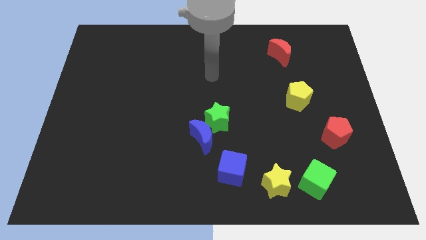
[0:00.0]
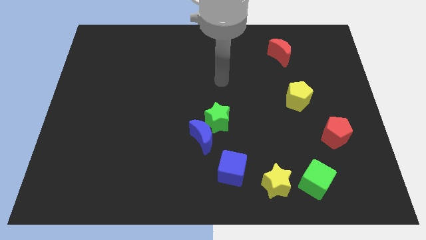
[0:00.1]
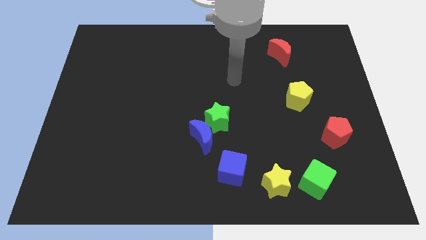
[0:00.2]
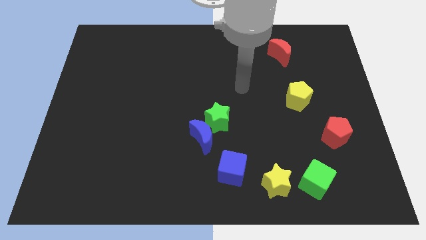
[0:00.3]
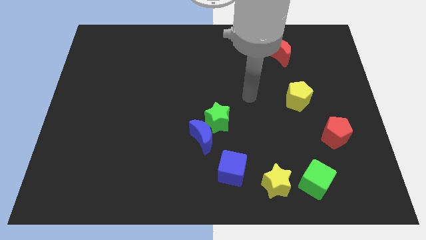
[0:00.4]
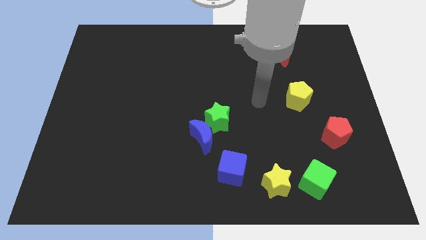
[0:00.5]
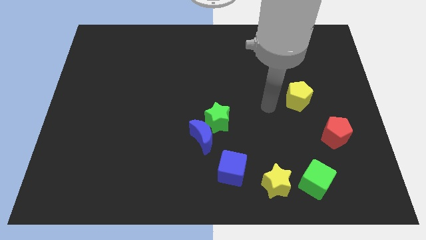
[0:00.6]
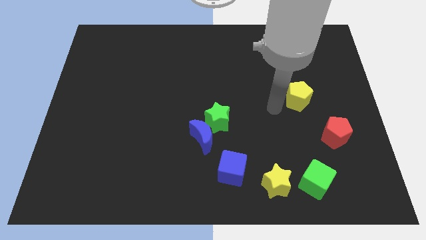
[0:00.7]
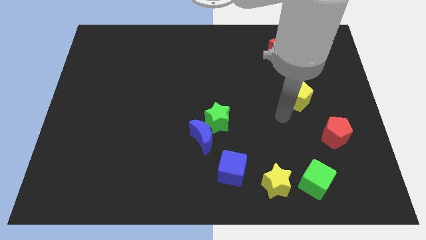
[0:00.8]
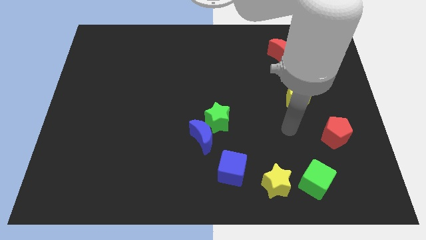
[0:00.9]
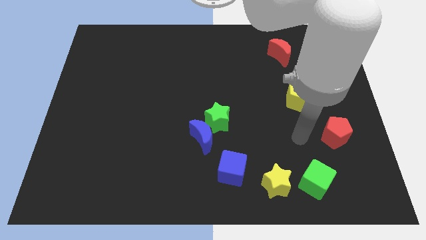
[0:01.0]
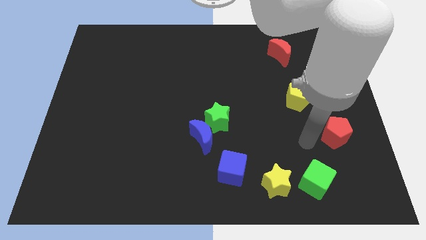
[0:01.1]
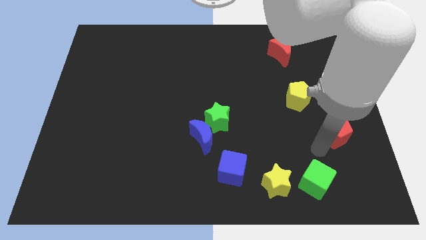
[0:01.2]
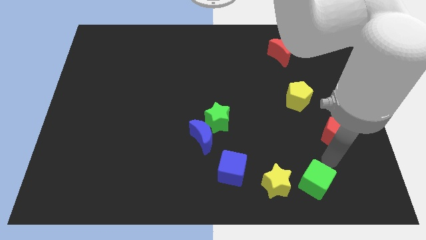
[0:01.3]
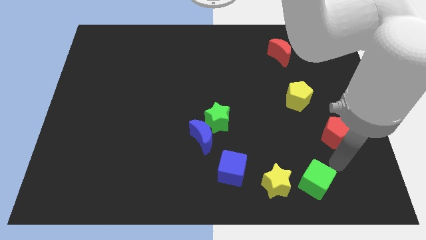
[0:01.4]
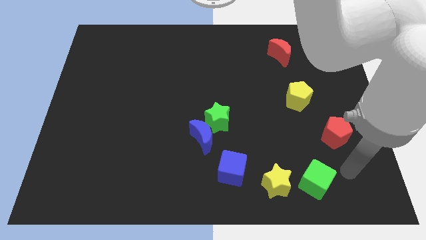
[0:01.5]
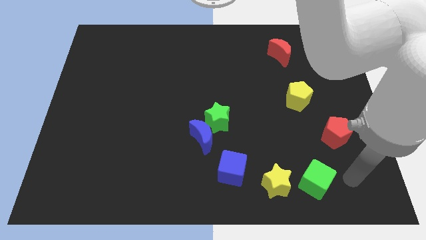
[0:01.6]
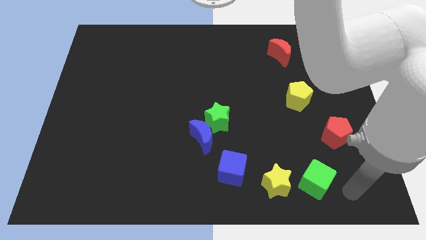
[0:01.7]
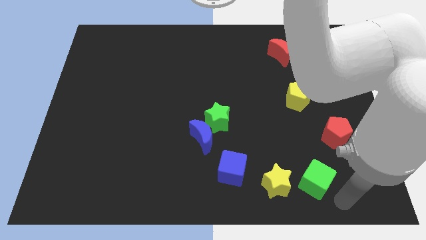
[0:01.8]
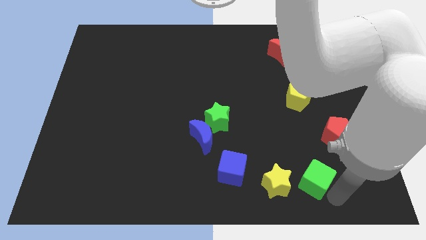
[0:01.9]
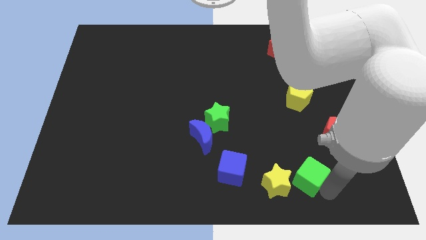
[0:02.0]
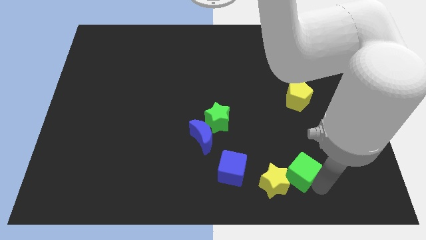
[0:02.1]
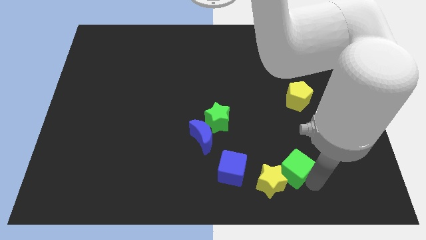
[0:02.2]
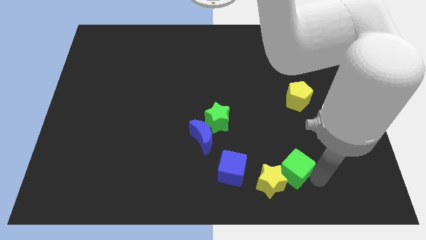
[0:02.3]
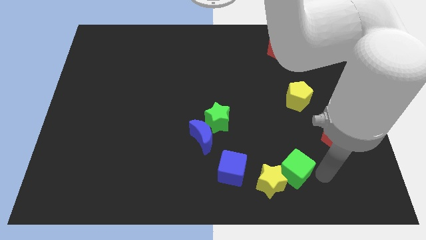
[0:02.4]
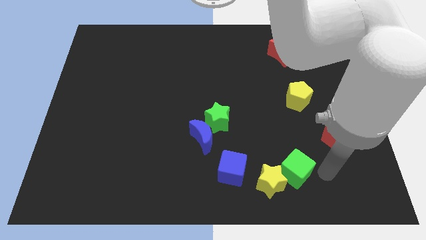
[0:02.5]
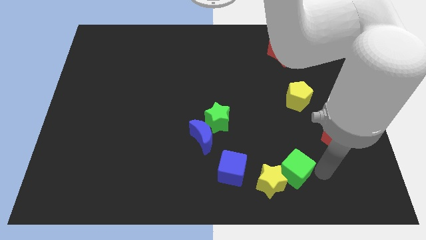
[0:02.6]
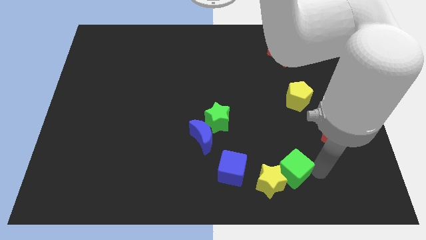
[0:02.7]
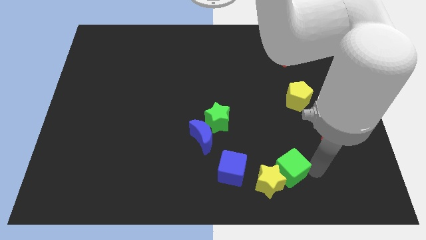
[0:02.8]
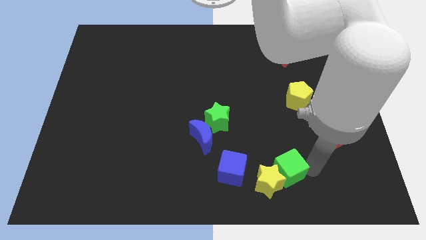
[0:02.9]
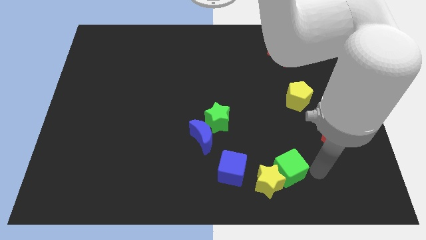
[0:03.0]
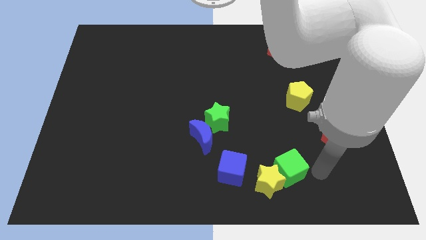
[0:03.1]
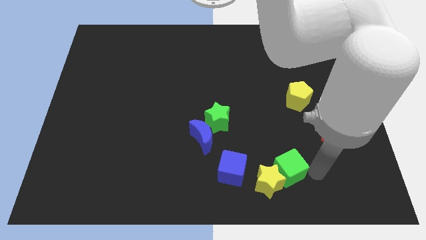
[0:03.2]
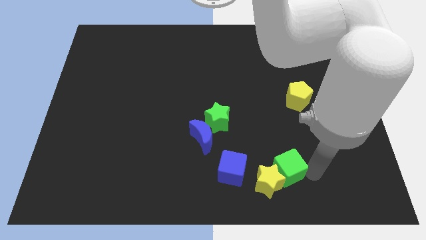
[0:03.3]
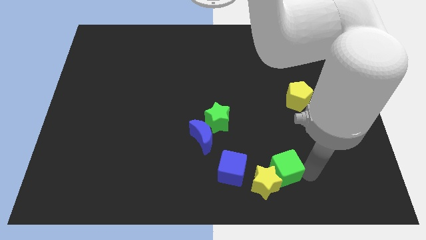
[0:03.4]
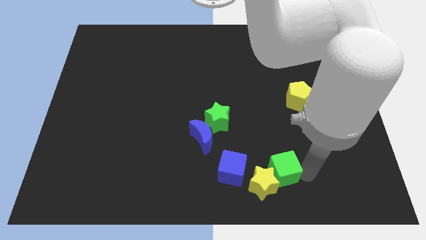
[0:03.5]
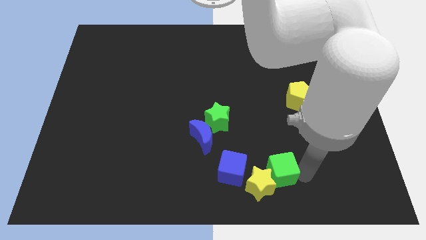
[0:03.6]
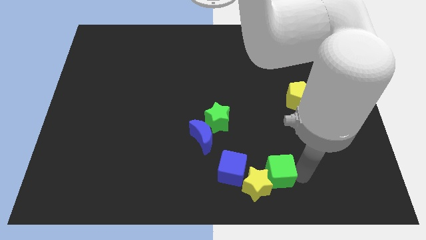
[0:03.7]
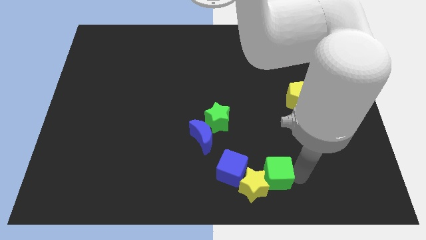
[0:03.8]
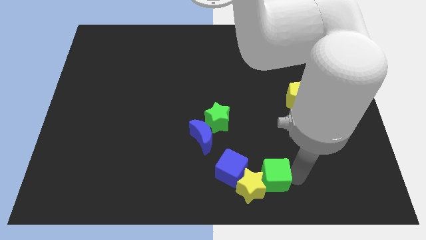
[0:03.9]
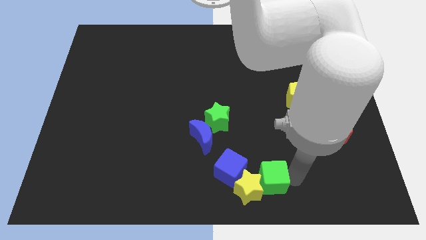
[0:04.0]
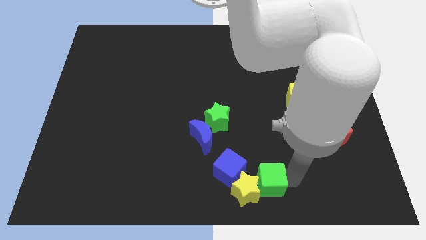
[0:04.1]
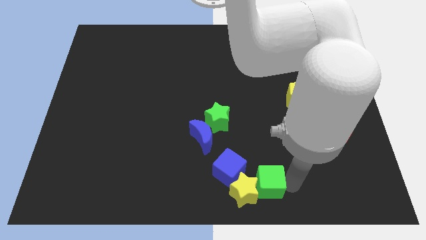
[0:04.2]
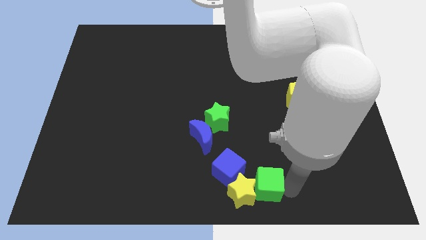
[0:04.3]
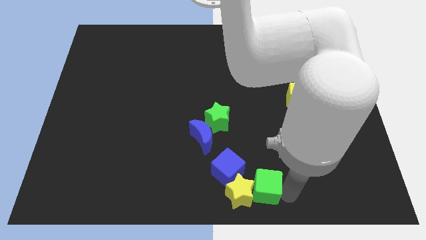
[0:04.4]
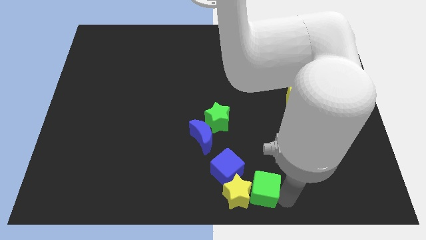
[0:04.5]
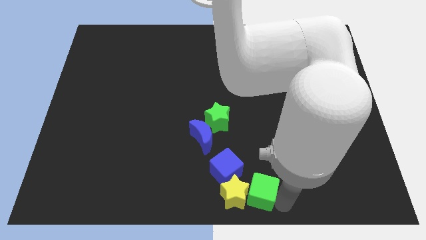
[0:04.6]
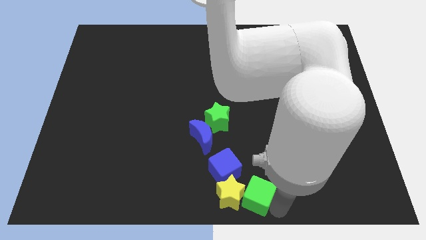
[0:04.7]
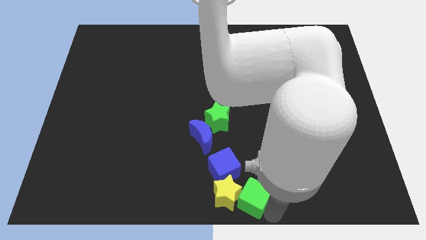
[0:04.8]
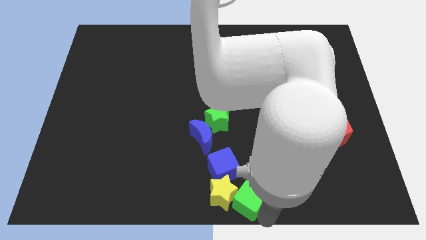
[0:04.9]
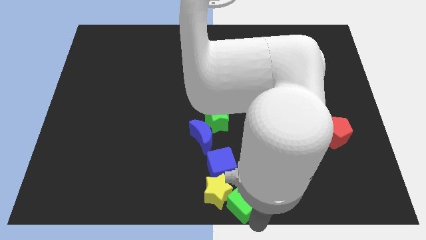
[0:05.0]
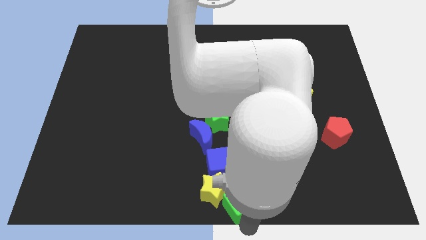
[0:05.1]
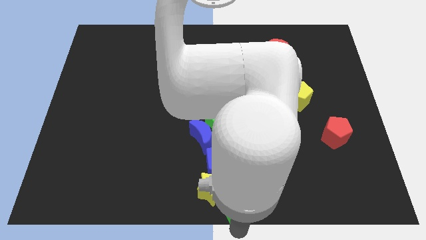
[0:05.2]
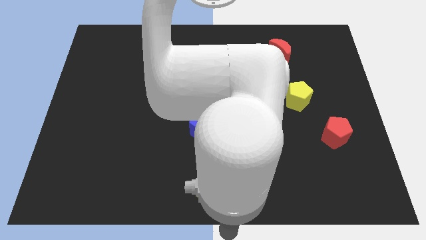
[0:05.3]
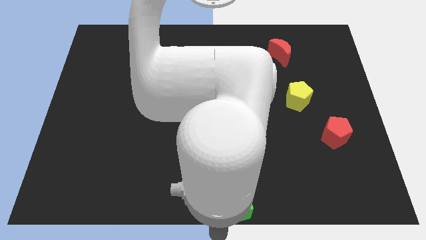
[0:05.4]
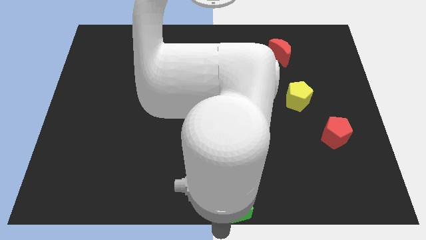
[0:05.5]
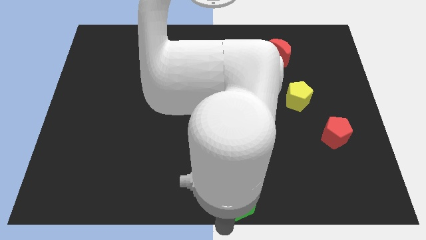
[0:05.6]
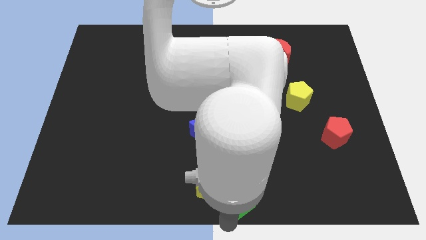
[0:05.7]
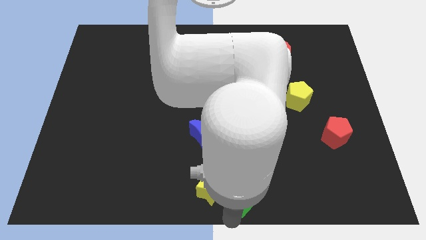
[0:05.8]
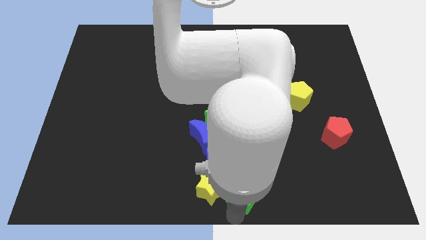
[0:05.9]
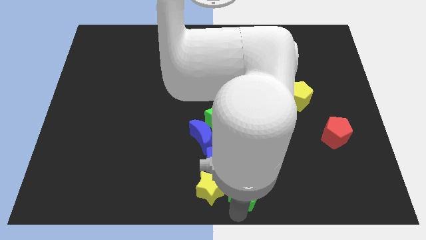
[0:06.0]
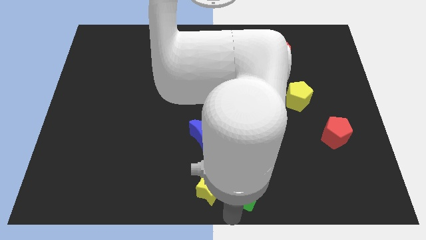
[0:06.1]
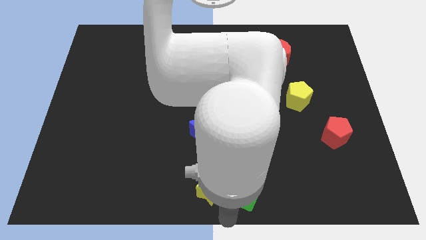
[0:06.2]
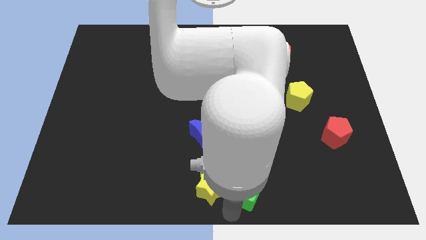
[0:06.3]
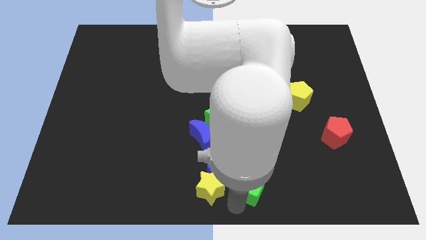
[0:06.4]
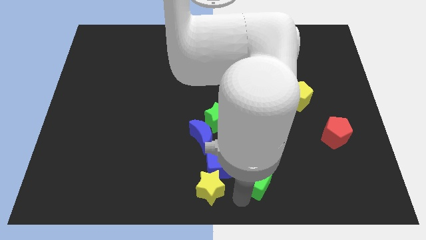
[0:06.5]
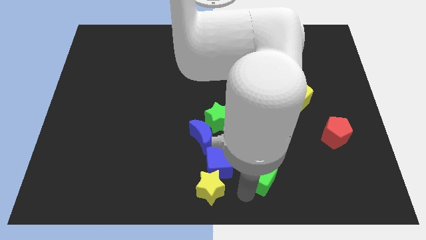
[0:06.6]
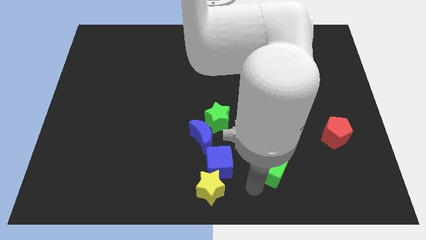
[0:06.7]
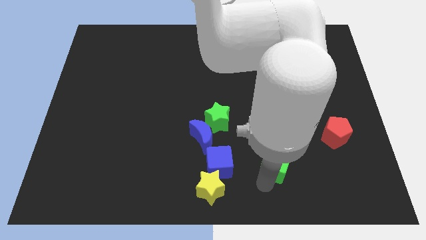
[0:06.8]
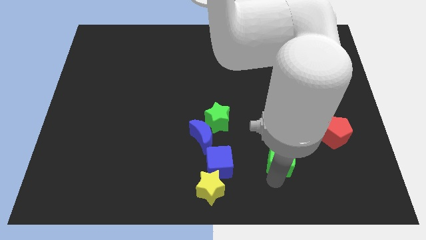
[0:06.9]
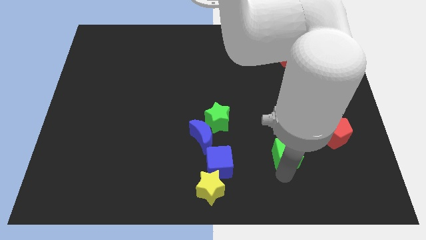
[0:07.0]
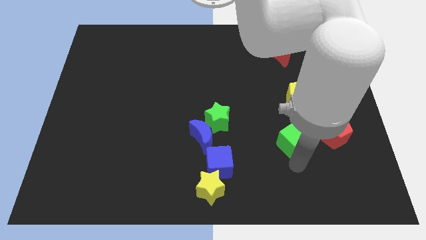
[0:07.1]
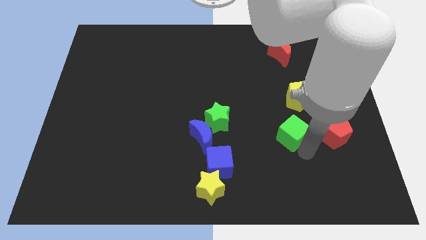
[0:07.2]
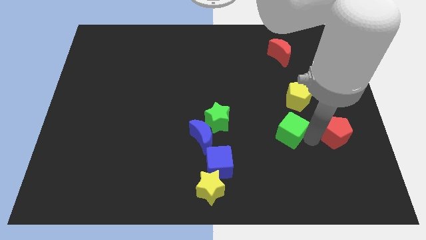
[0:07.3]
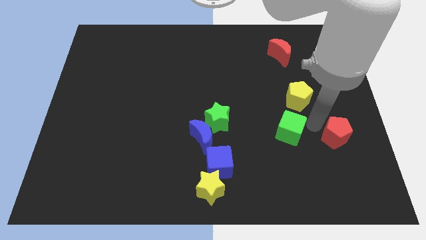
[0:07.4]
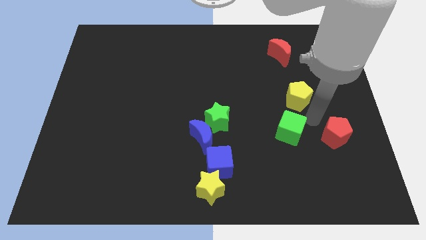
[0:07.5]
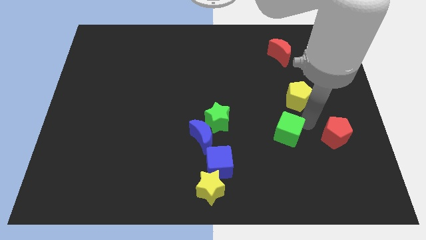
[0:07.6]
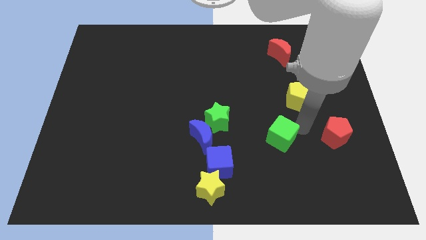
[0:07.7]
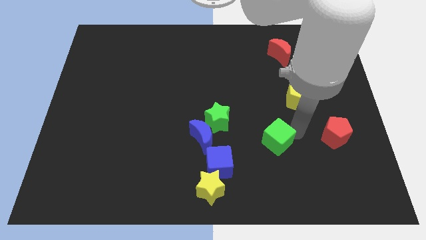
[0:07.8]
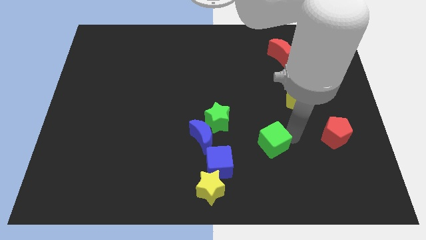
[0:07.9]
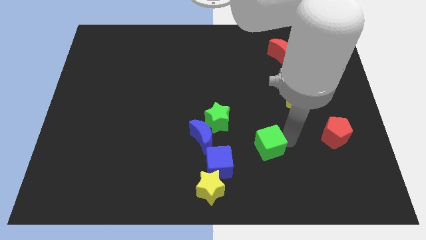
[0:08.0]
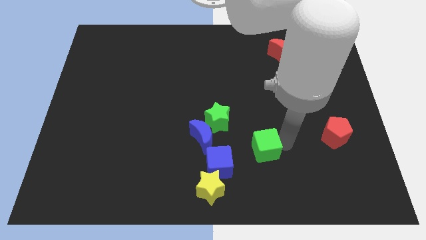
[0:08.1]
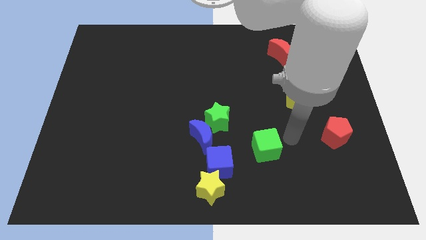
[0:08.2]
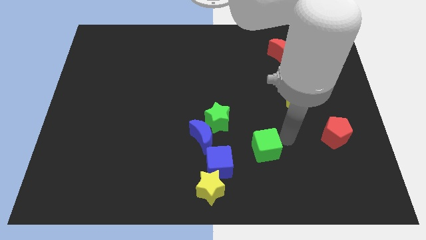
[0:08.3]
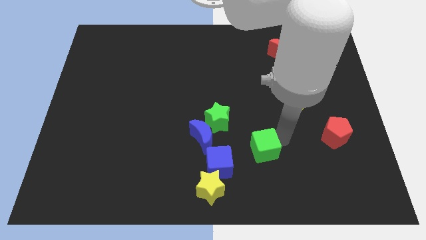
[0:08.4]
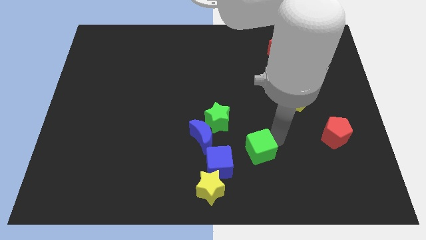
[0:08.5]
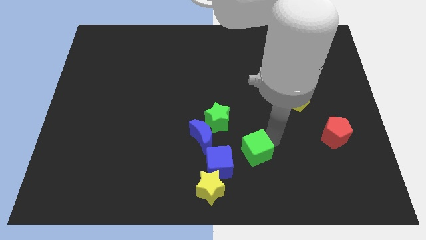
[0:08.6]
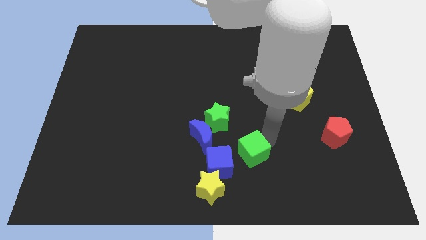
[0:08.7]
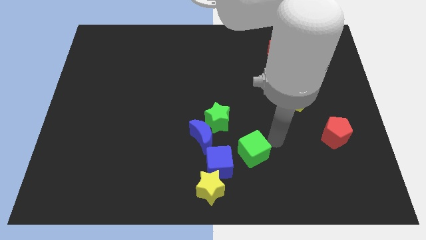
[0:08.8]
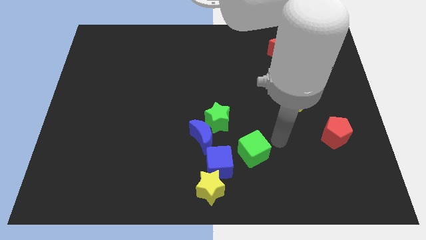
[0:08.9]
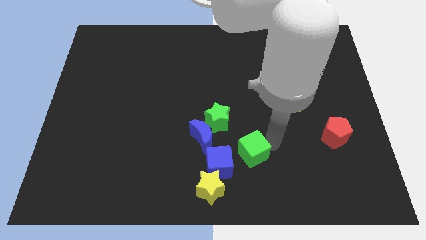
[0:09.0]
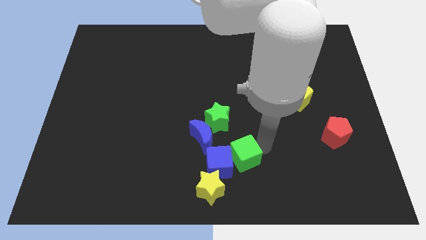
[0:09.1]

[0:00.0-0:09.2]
slide the green cube towards the blue cube
